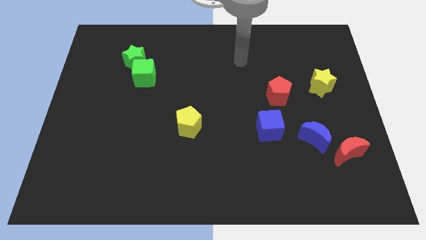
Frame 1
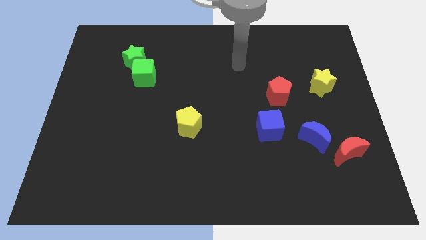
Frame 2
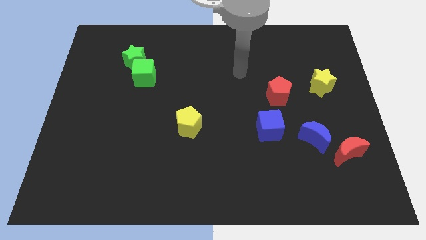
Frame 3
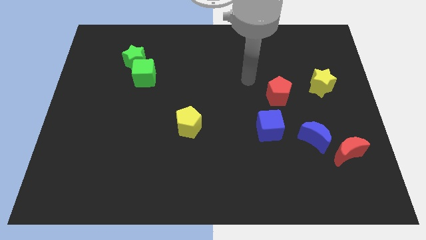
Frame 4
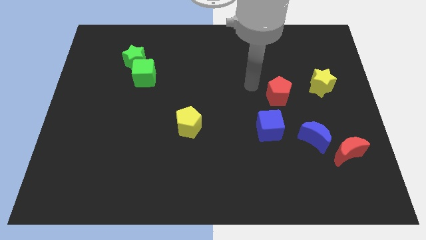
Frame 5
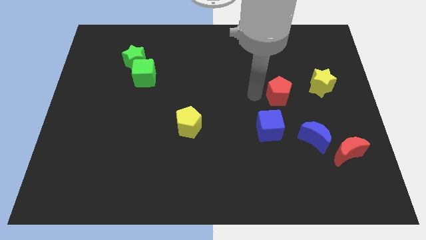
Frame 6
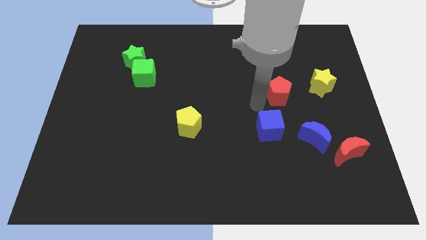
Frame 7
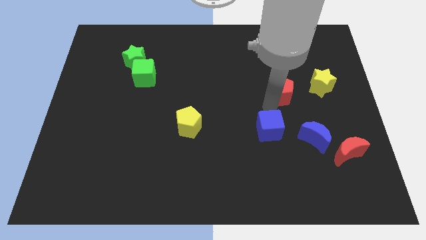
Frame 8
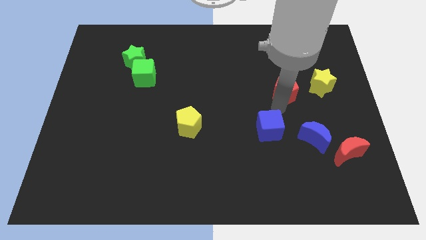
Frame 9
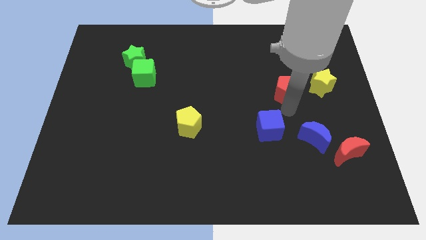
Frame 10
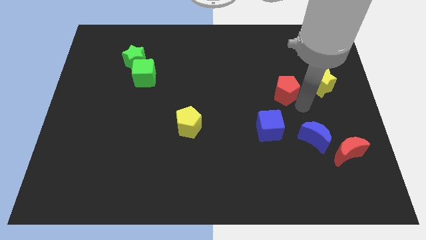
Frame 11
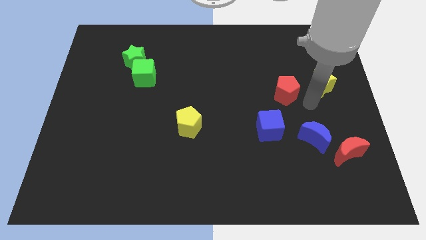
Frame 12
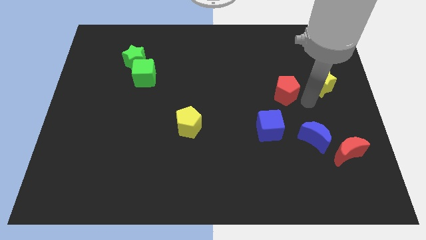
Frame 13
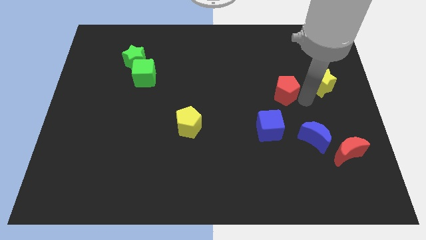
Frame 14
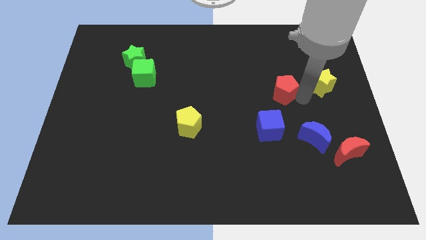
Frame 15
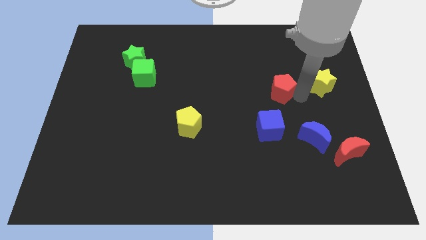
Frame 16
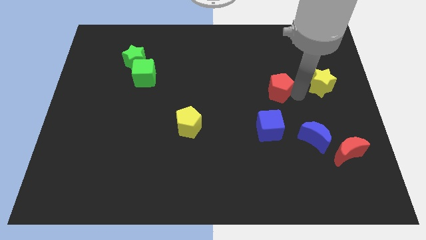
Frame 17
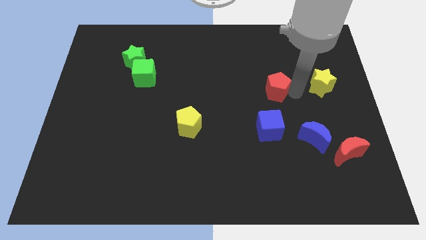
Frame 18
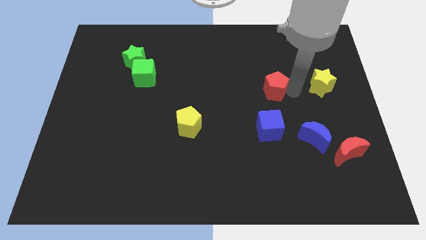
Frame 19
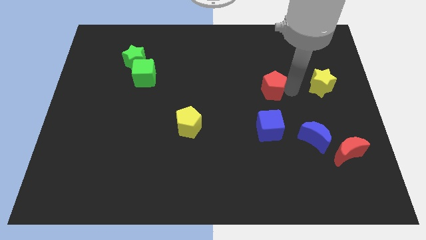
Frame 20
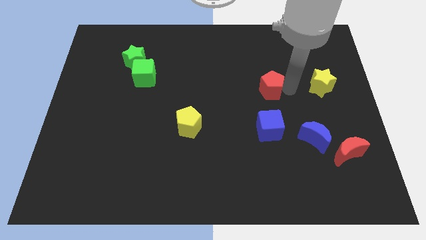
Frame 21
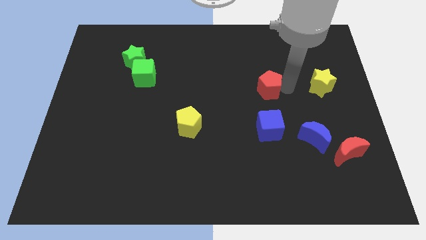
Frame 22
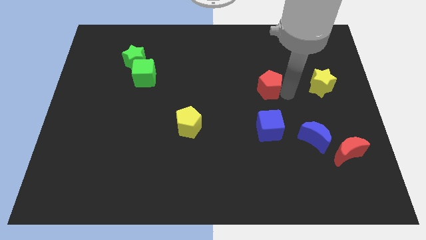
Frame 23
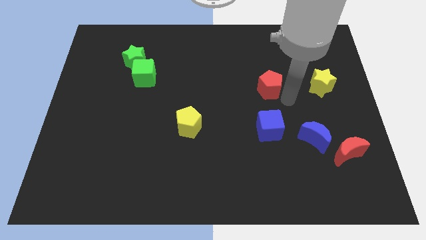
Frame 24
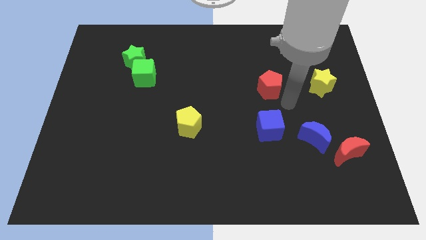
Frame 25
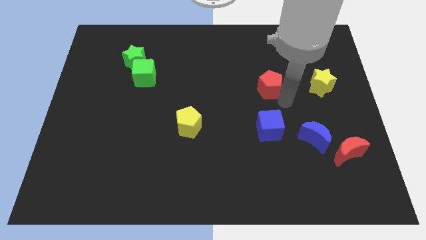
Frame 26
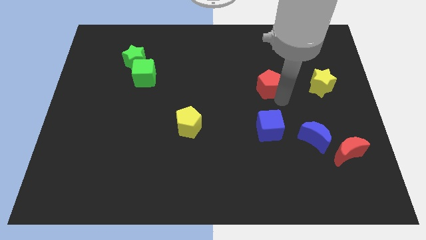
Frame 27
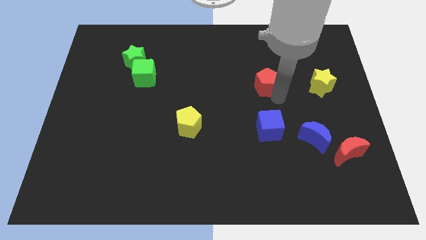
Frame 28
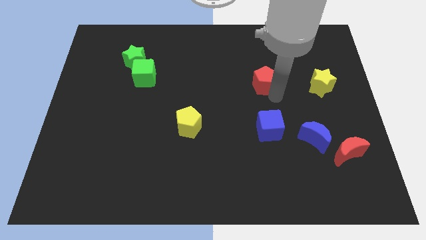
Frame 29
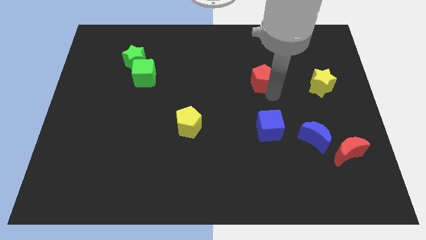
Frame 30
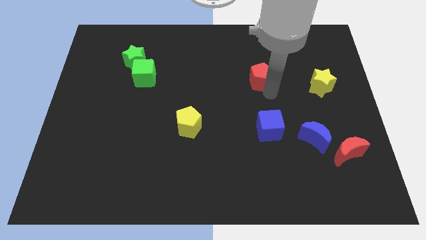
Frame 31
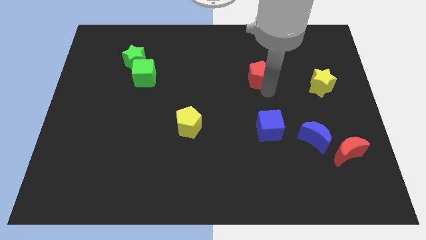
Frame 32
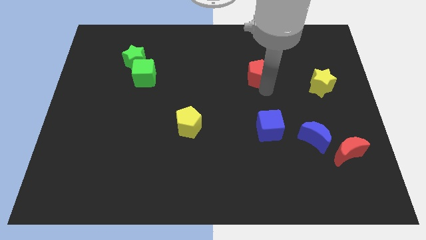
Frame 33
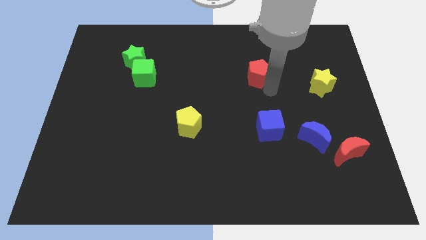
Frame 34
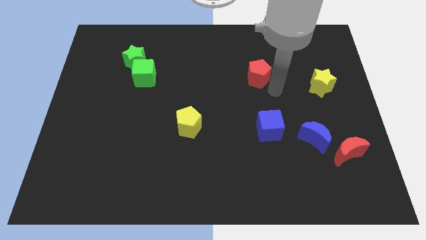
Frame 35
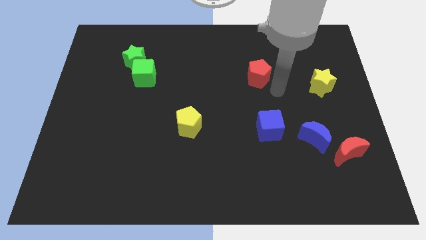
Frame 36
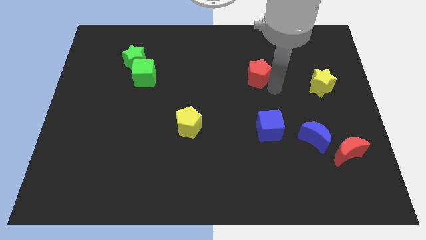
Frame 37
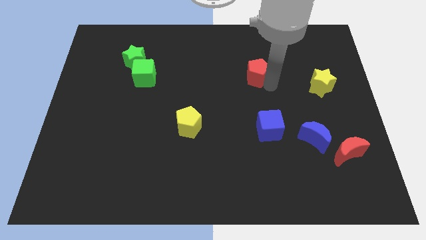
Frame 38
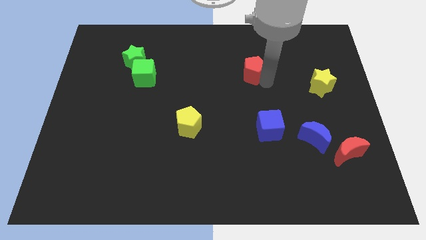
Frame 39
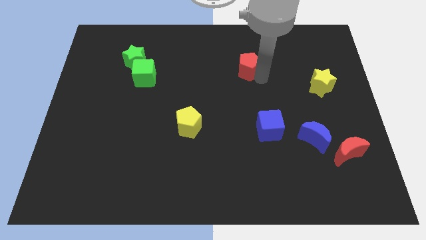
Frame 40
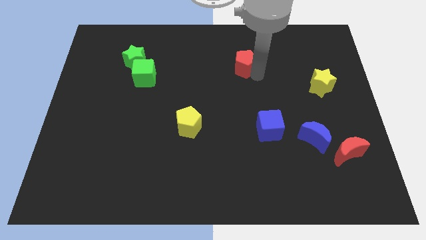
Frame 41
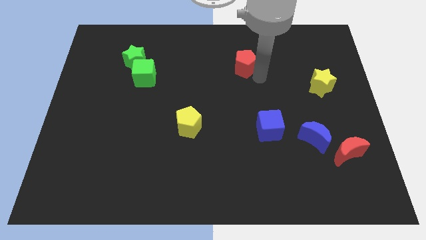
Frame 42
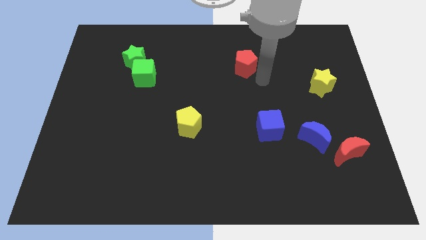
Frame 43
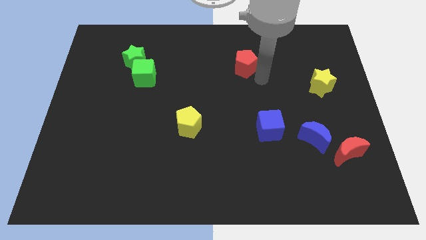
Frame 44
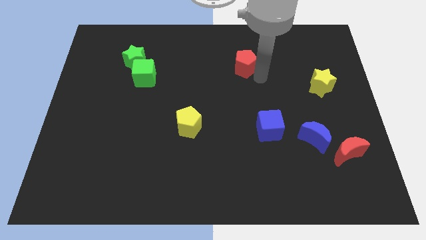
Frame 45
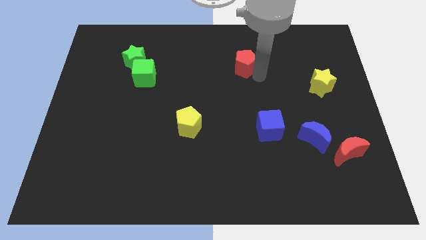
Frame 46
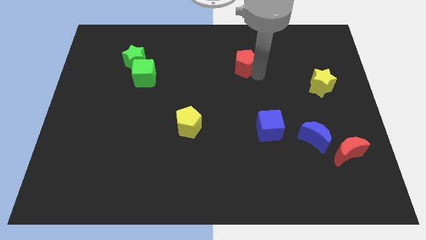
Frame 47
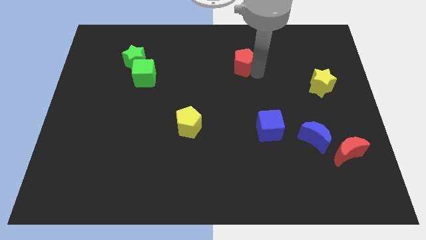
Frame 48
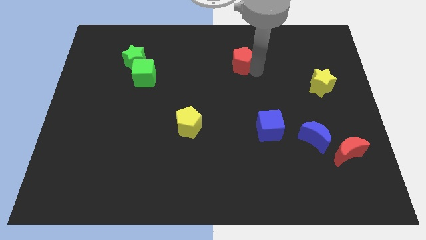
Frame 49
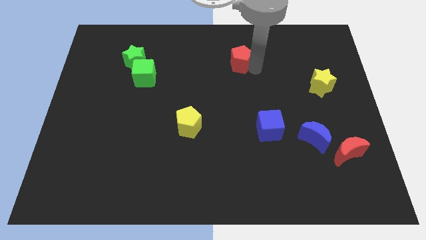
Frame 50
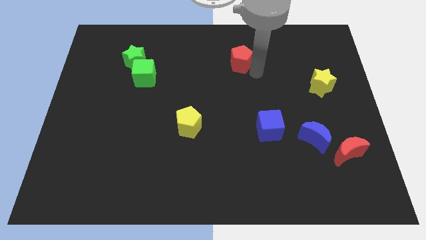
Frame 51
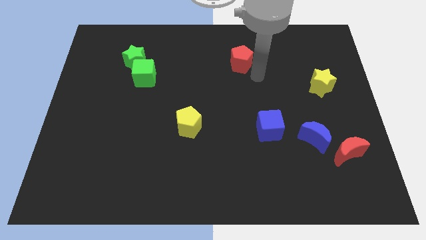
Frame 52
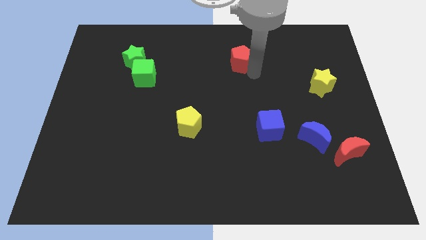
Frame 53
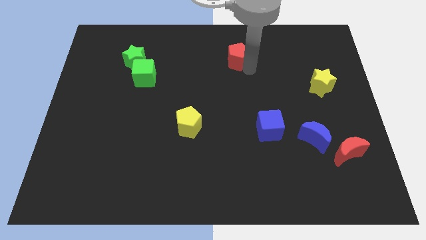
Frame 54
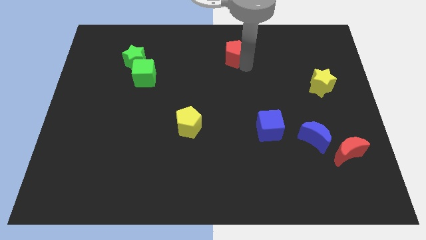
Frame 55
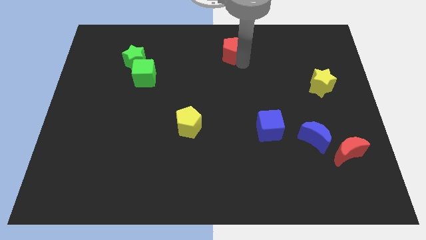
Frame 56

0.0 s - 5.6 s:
push the red pentagon to the top side

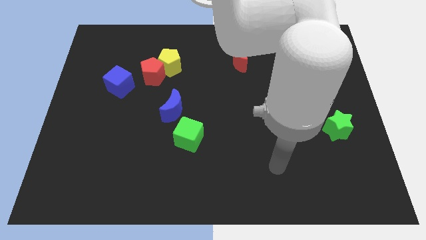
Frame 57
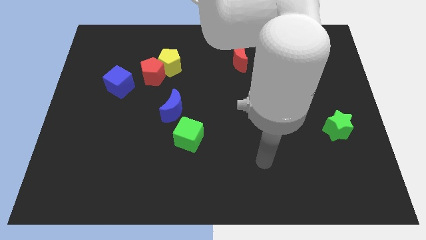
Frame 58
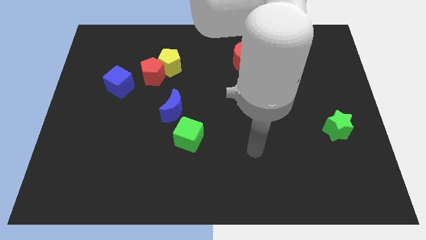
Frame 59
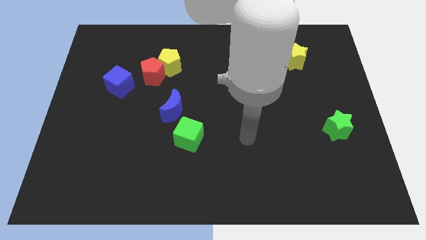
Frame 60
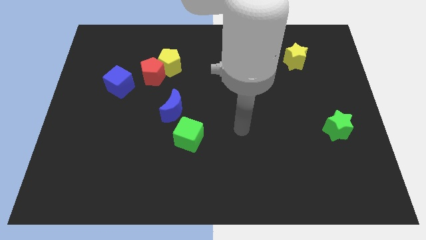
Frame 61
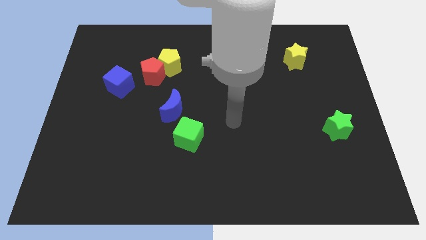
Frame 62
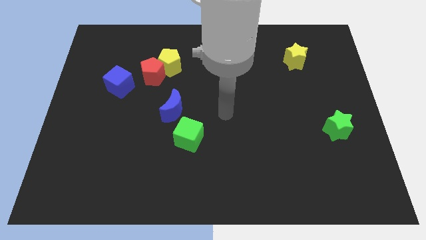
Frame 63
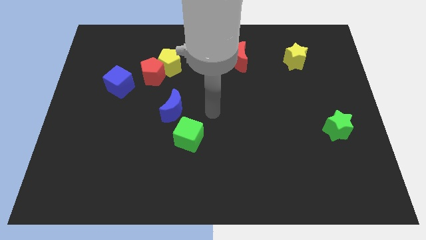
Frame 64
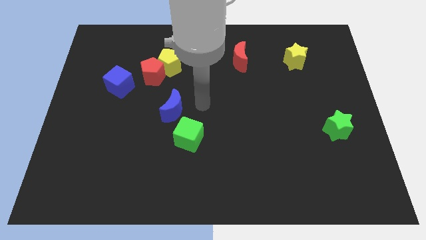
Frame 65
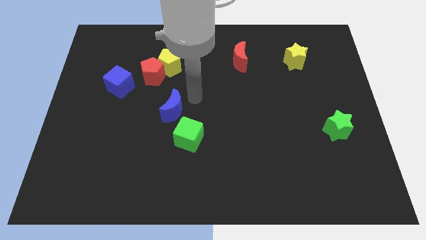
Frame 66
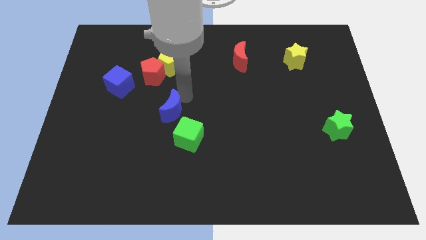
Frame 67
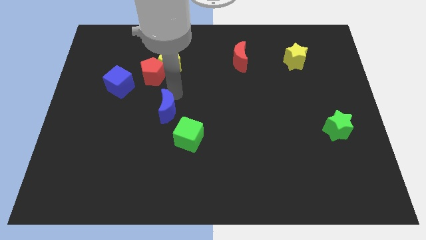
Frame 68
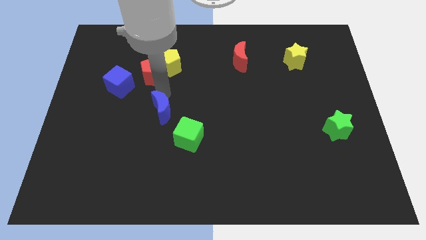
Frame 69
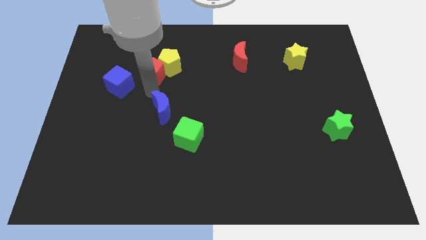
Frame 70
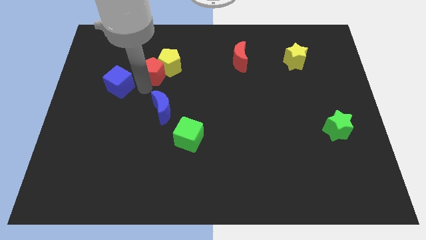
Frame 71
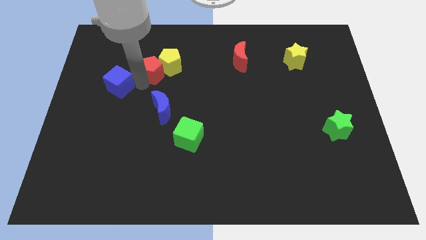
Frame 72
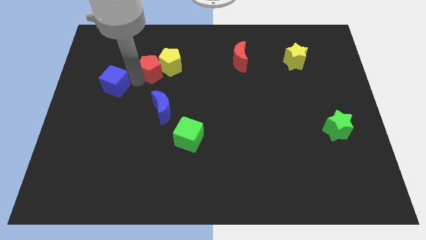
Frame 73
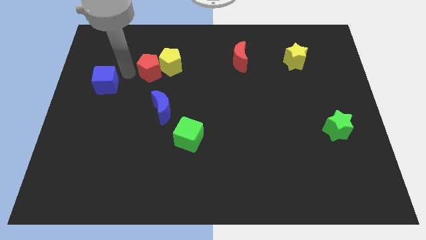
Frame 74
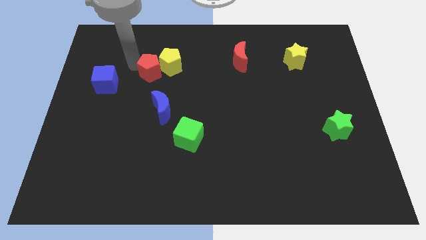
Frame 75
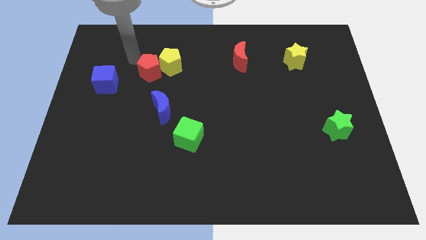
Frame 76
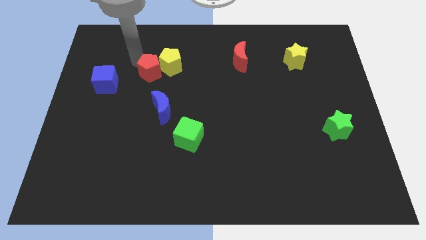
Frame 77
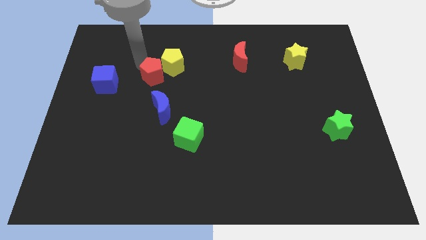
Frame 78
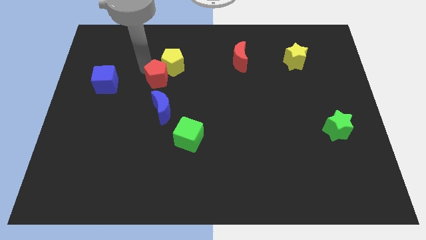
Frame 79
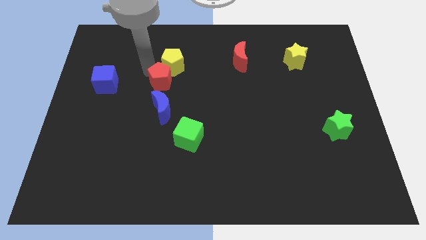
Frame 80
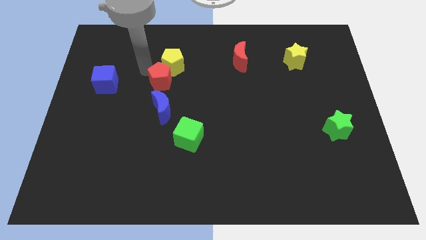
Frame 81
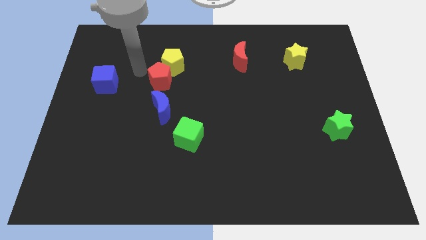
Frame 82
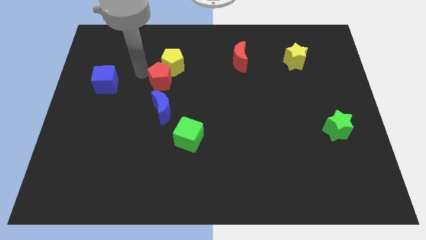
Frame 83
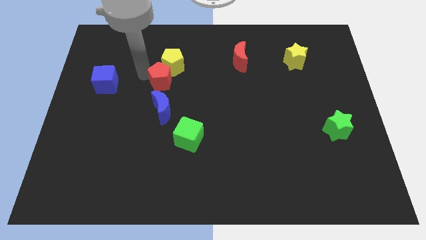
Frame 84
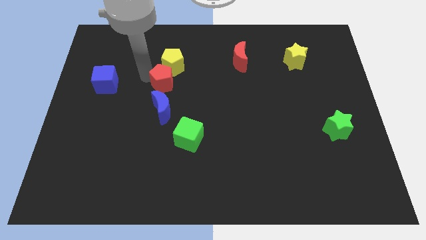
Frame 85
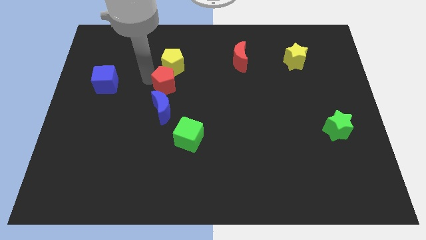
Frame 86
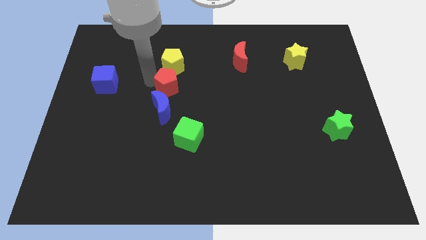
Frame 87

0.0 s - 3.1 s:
slide the red pentagon to the center of the board
